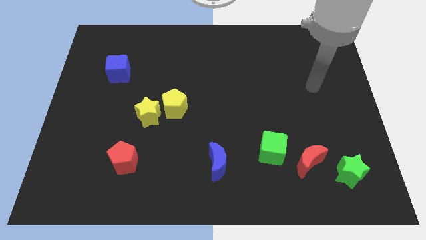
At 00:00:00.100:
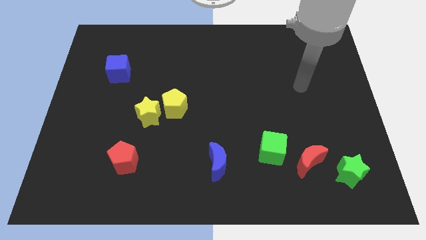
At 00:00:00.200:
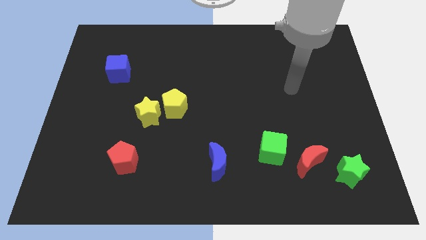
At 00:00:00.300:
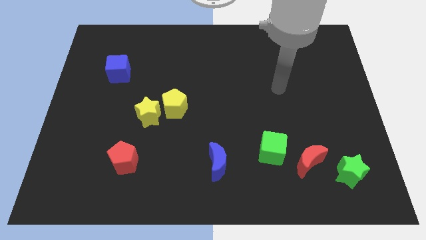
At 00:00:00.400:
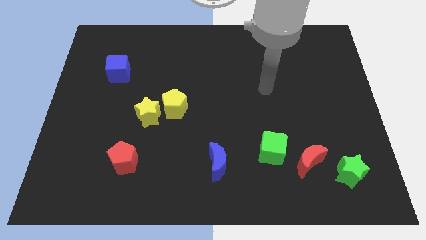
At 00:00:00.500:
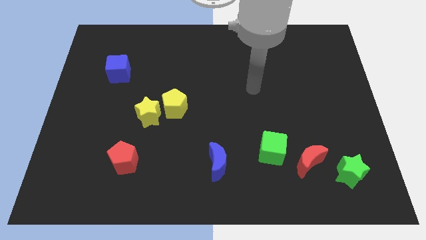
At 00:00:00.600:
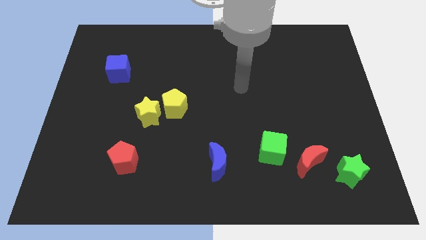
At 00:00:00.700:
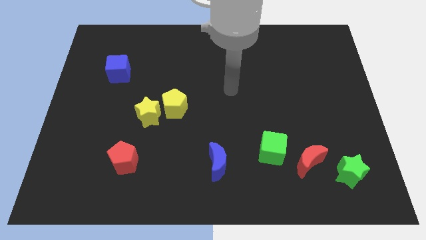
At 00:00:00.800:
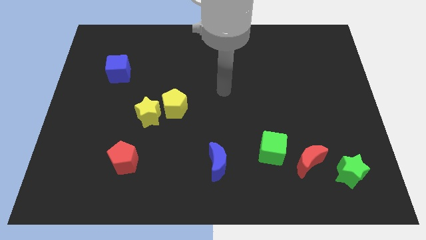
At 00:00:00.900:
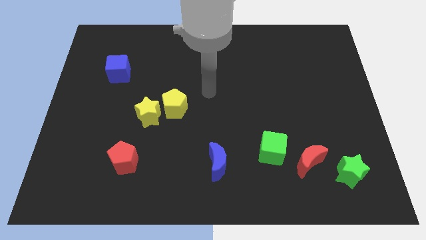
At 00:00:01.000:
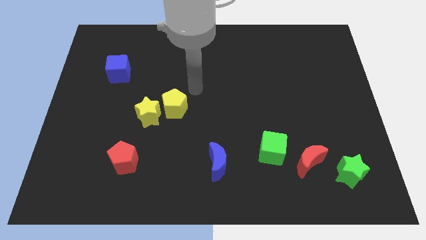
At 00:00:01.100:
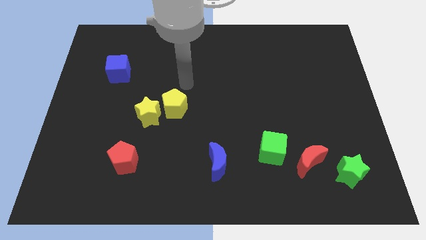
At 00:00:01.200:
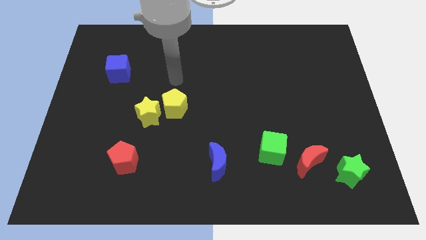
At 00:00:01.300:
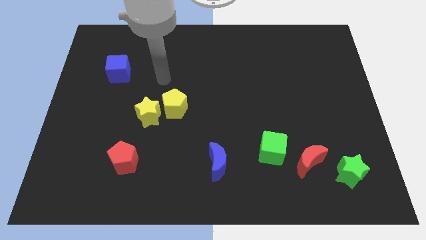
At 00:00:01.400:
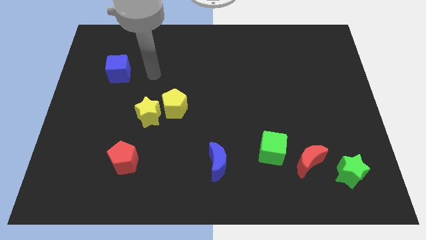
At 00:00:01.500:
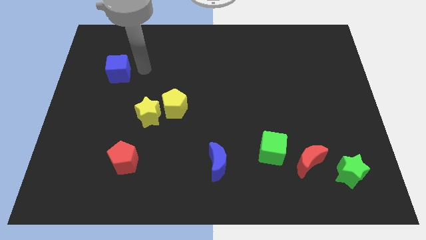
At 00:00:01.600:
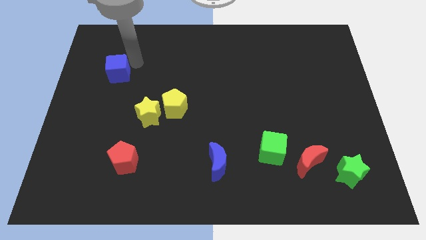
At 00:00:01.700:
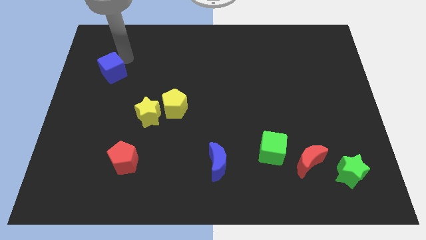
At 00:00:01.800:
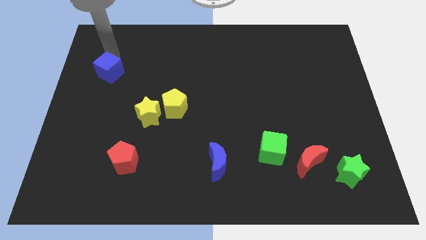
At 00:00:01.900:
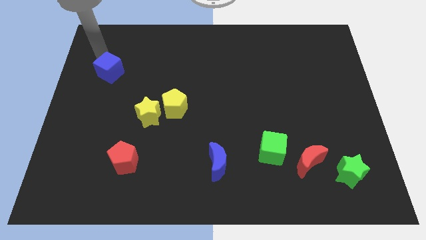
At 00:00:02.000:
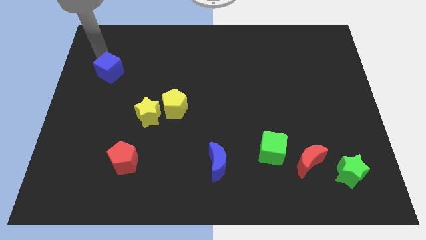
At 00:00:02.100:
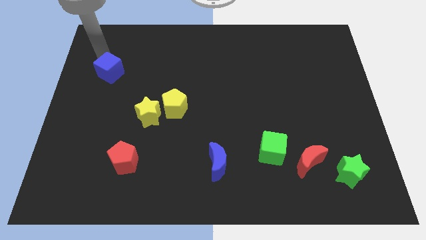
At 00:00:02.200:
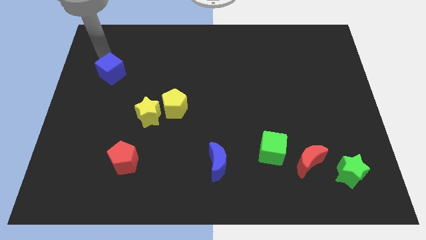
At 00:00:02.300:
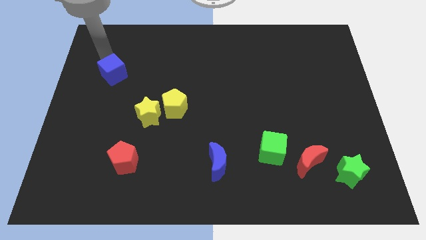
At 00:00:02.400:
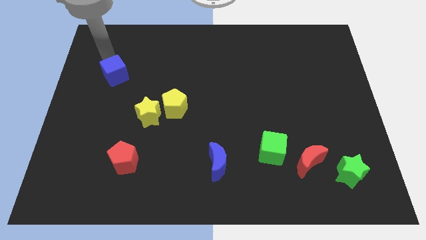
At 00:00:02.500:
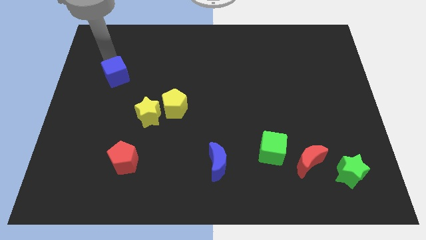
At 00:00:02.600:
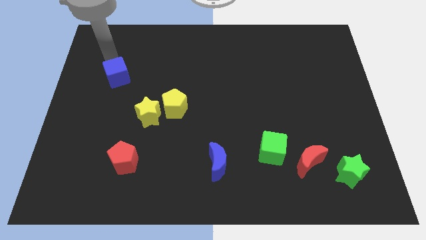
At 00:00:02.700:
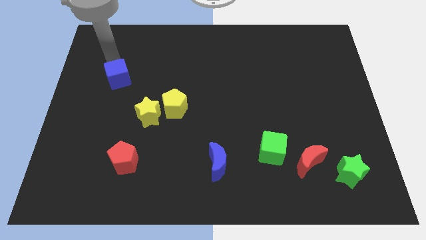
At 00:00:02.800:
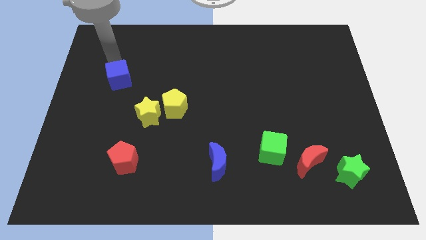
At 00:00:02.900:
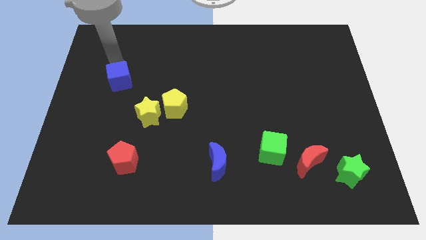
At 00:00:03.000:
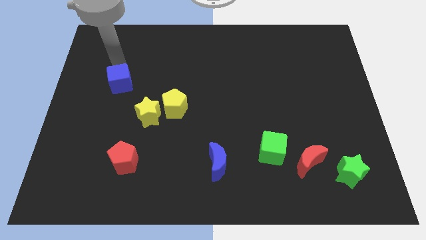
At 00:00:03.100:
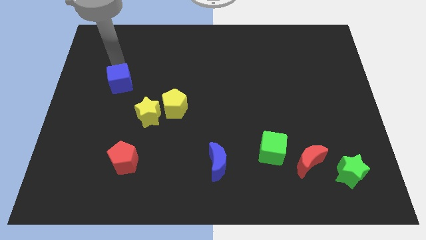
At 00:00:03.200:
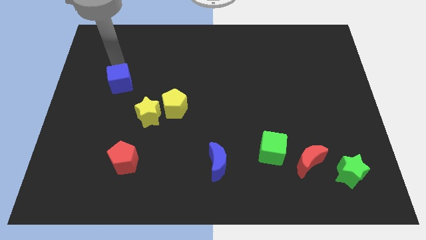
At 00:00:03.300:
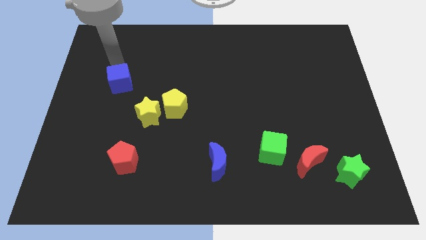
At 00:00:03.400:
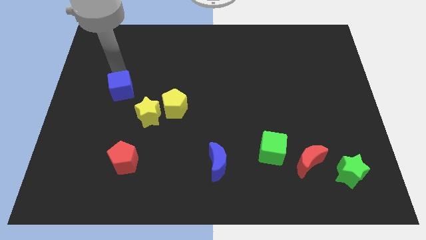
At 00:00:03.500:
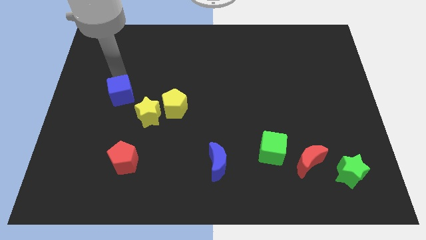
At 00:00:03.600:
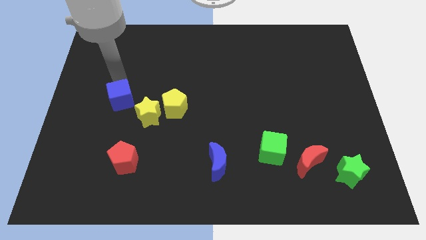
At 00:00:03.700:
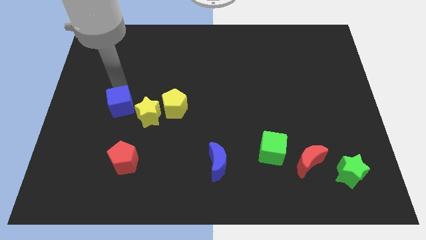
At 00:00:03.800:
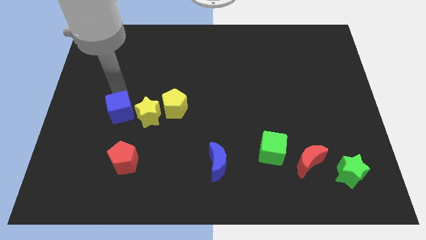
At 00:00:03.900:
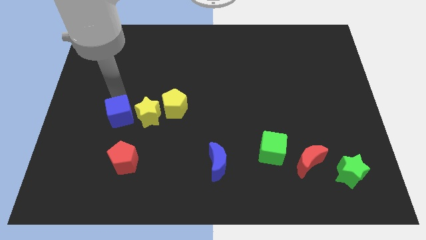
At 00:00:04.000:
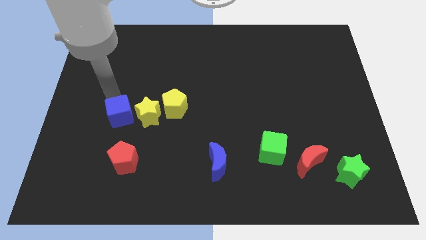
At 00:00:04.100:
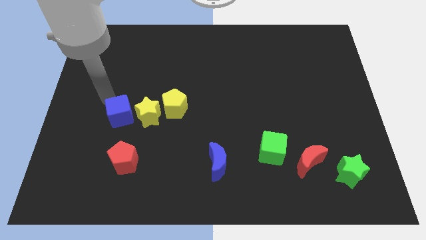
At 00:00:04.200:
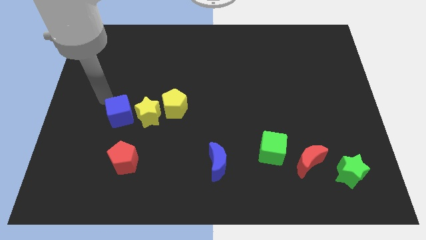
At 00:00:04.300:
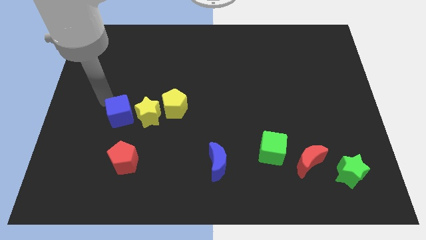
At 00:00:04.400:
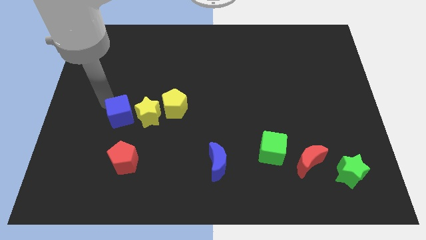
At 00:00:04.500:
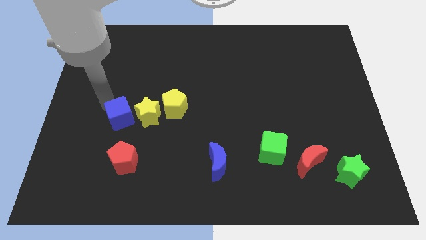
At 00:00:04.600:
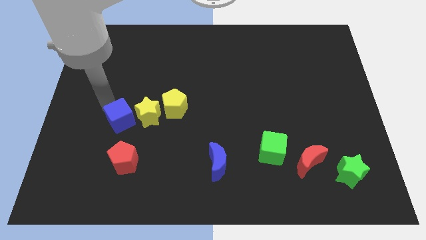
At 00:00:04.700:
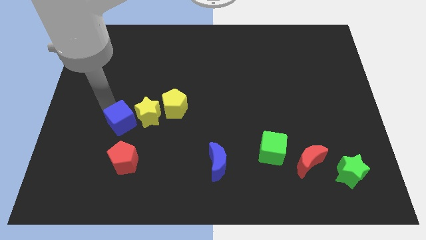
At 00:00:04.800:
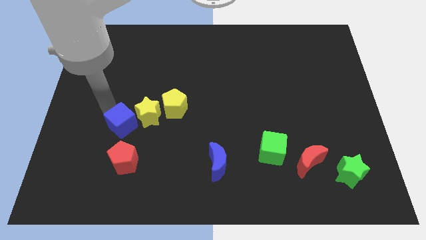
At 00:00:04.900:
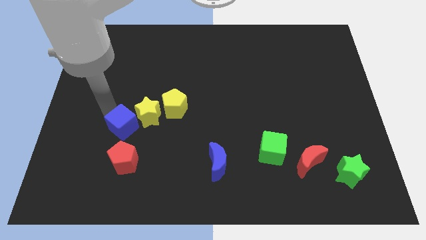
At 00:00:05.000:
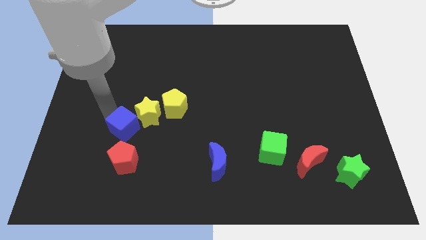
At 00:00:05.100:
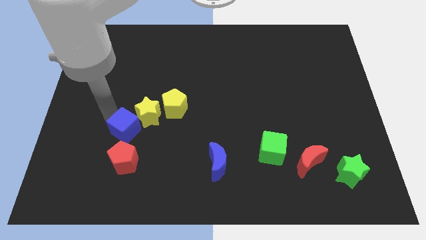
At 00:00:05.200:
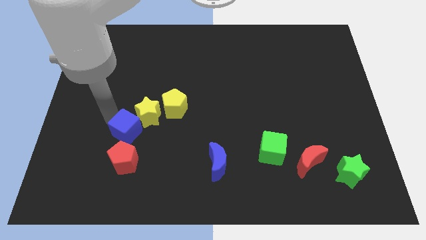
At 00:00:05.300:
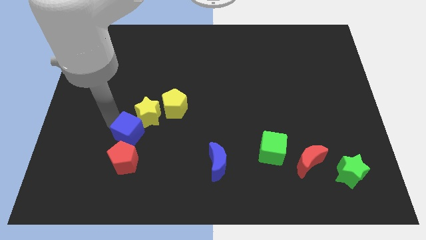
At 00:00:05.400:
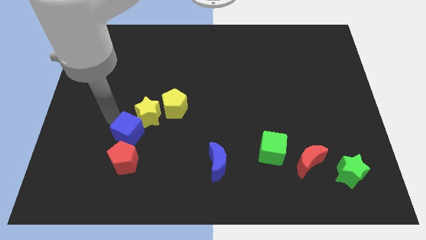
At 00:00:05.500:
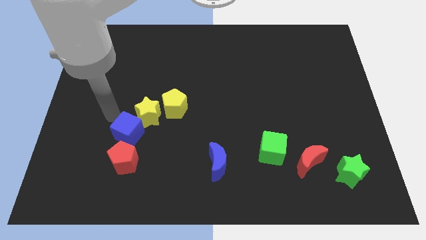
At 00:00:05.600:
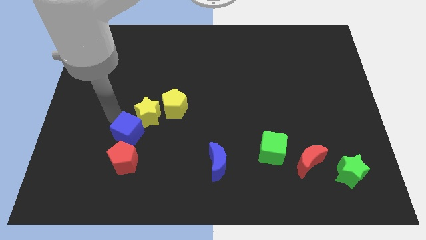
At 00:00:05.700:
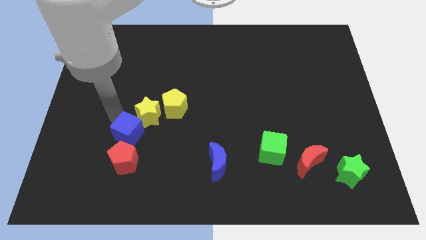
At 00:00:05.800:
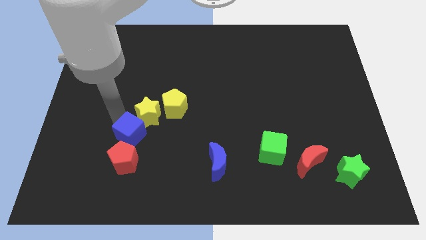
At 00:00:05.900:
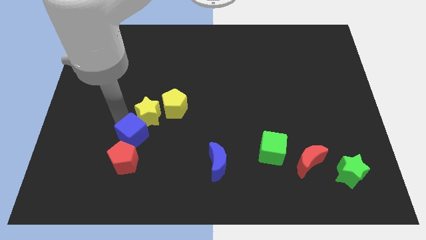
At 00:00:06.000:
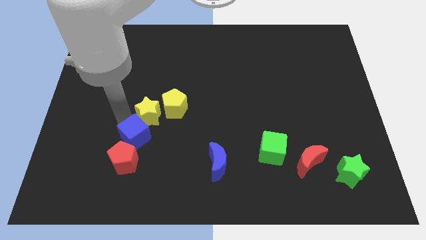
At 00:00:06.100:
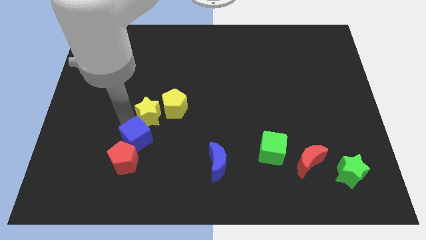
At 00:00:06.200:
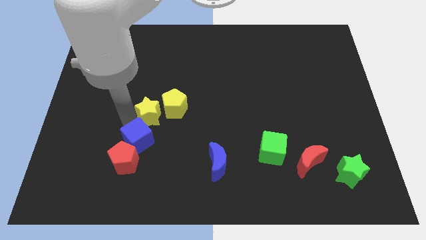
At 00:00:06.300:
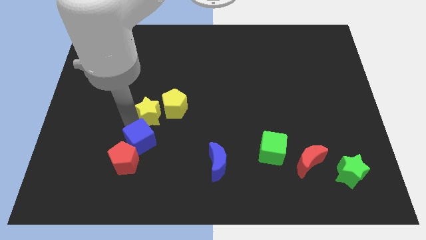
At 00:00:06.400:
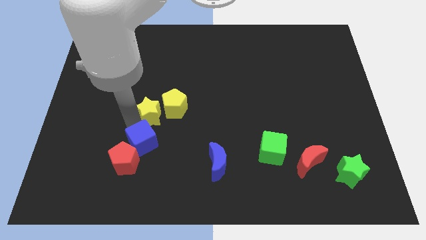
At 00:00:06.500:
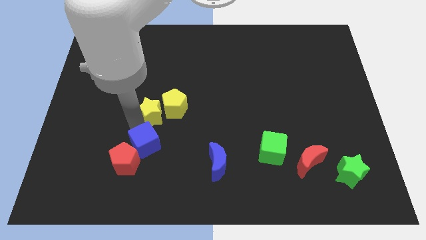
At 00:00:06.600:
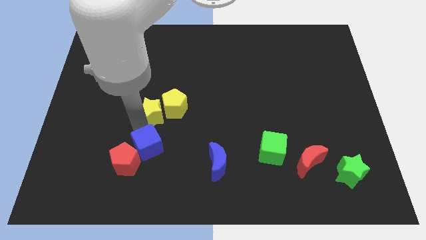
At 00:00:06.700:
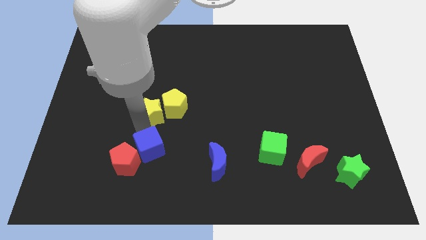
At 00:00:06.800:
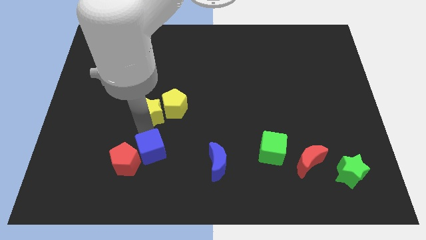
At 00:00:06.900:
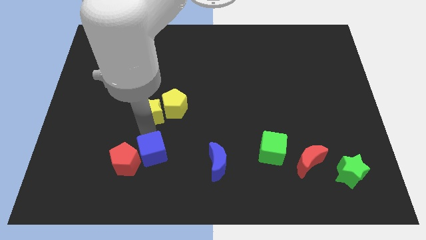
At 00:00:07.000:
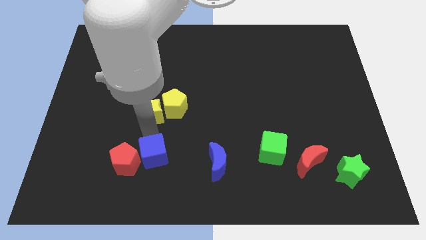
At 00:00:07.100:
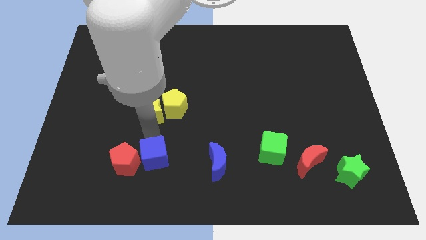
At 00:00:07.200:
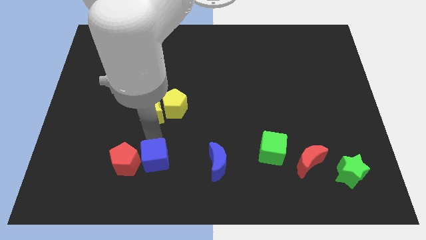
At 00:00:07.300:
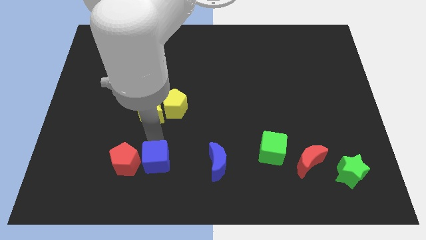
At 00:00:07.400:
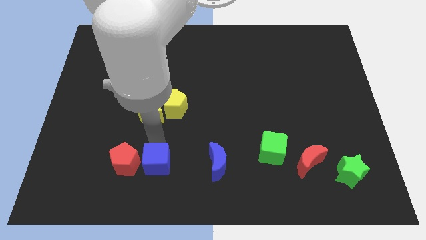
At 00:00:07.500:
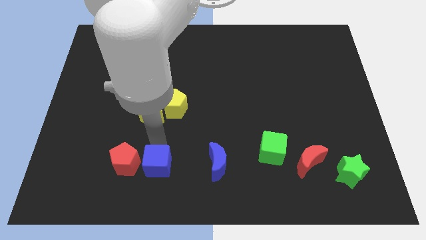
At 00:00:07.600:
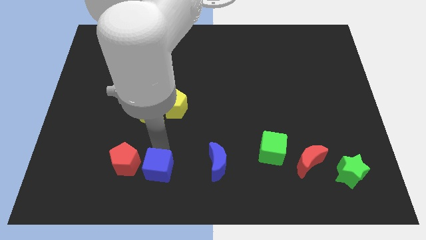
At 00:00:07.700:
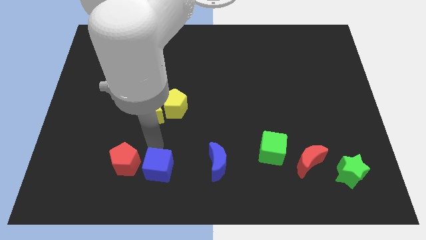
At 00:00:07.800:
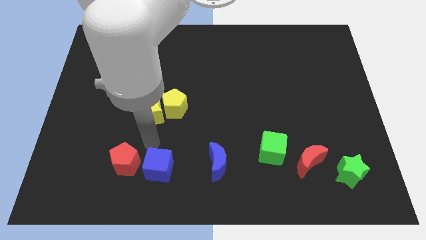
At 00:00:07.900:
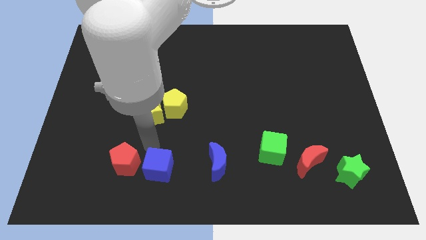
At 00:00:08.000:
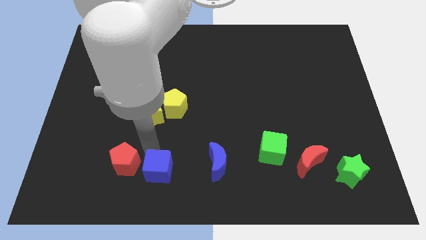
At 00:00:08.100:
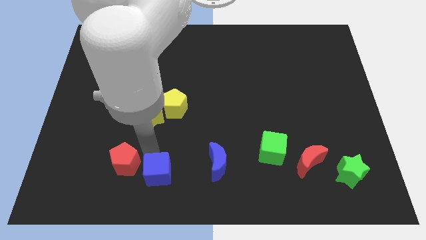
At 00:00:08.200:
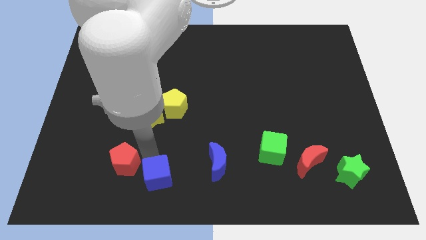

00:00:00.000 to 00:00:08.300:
slide the blue cube to the bottom
